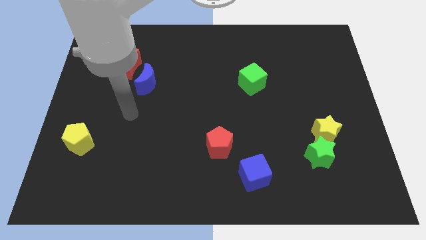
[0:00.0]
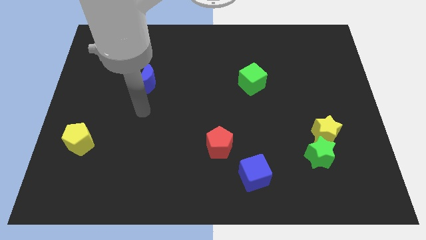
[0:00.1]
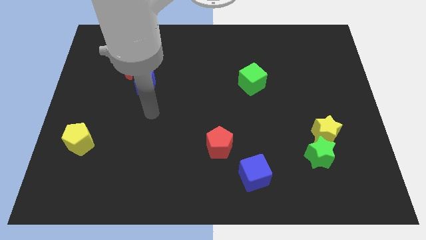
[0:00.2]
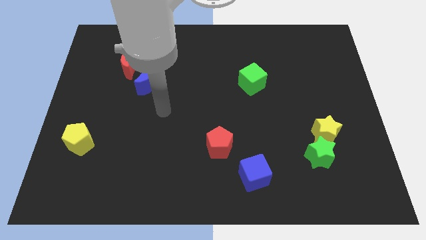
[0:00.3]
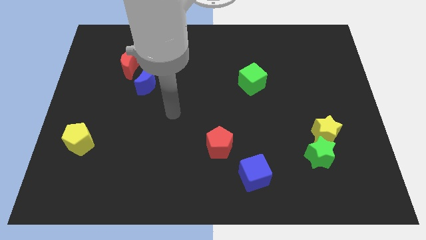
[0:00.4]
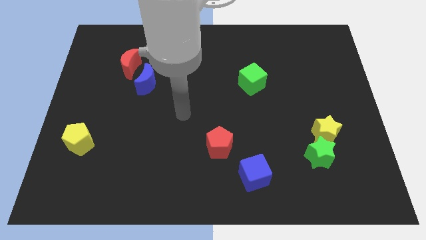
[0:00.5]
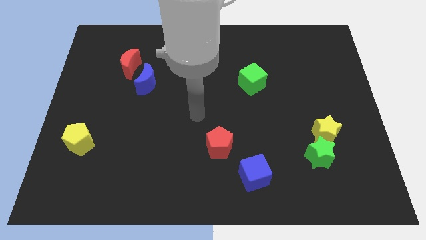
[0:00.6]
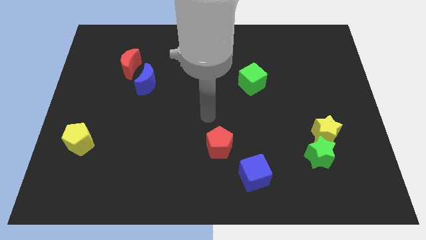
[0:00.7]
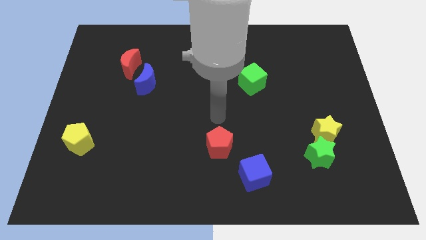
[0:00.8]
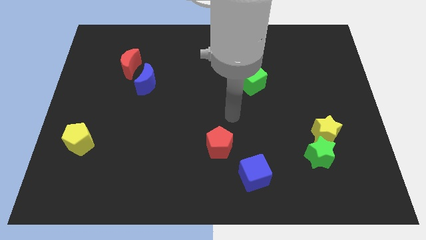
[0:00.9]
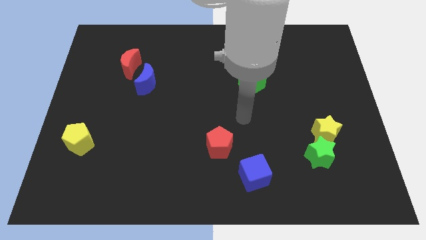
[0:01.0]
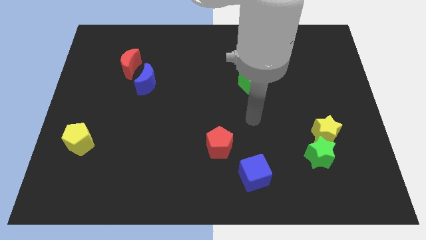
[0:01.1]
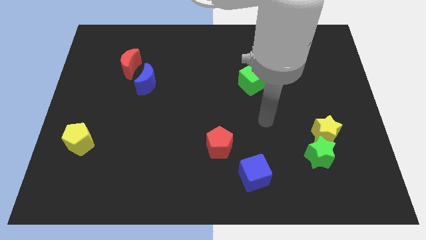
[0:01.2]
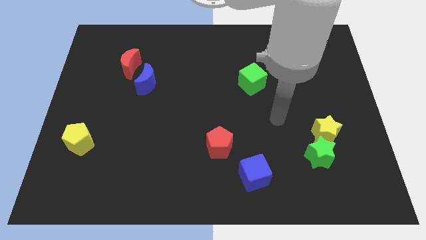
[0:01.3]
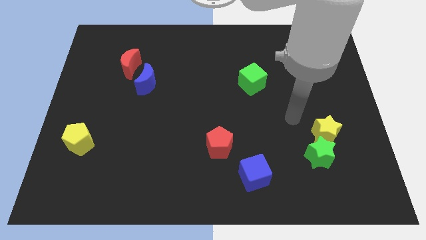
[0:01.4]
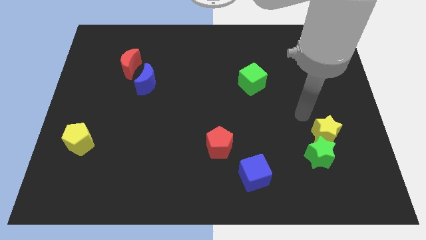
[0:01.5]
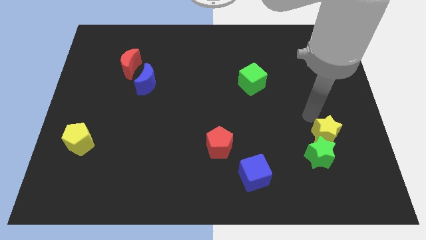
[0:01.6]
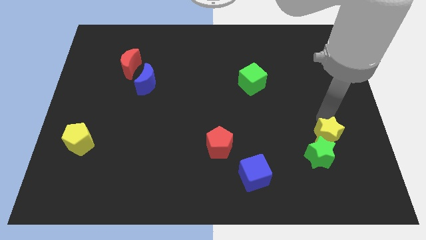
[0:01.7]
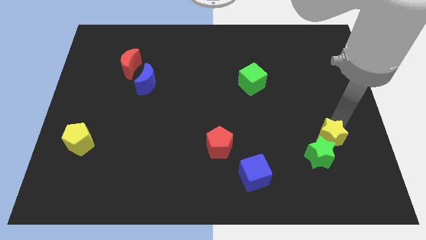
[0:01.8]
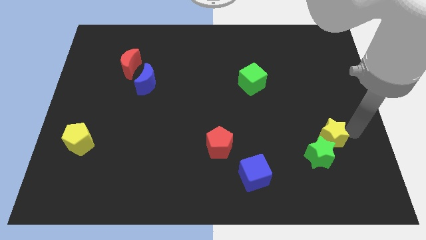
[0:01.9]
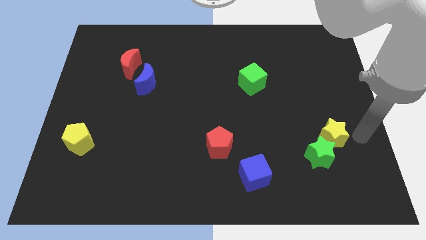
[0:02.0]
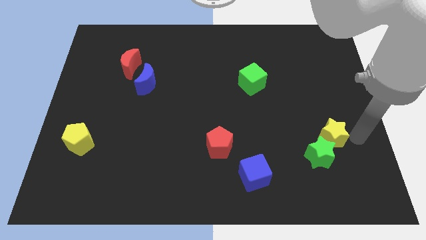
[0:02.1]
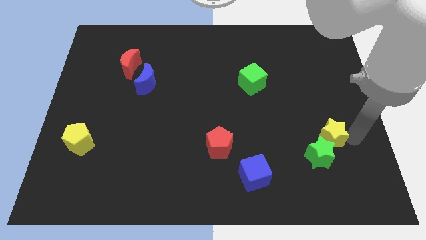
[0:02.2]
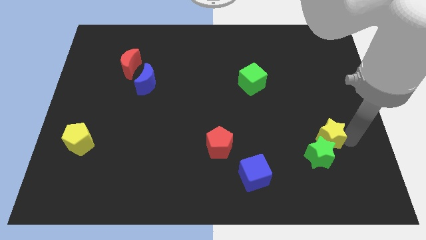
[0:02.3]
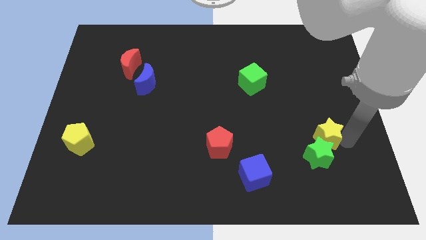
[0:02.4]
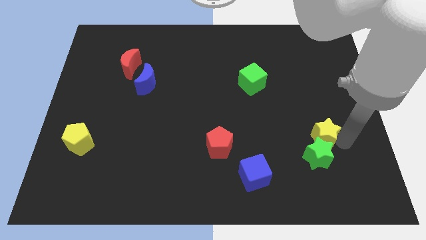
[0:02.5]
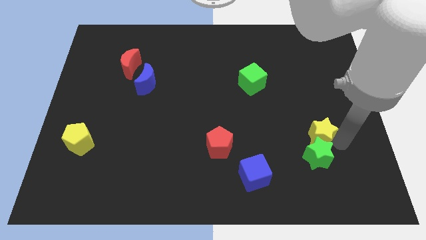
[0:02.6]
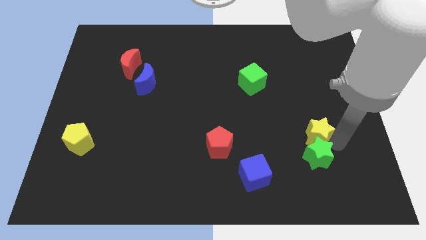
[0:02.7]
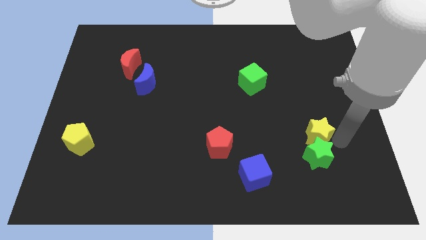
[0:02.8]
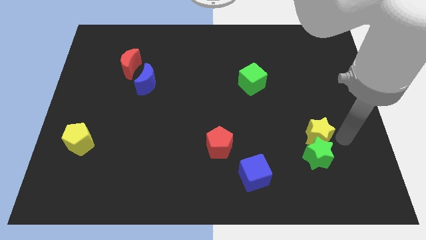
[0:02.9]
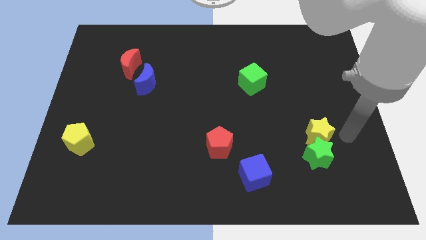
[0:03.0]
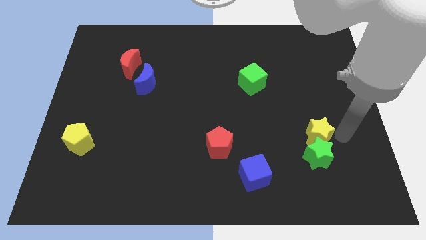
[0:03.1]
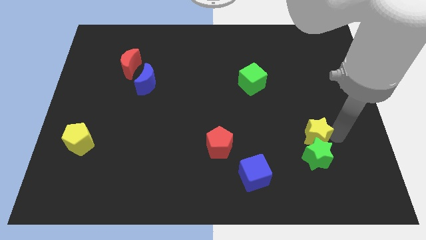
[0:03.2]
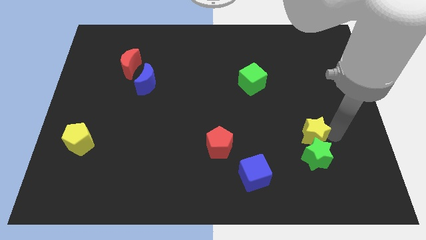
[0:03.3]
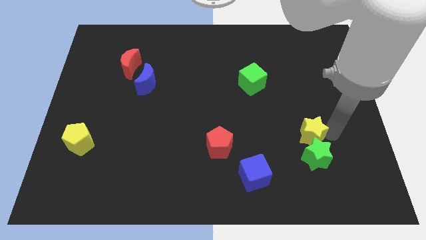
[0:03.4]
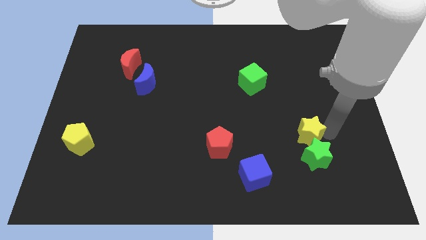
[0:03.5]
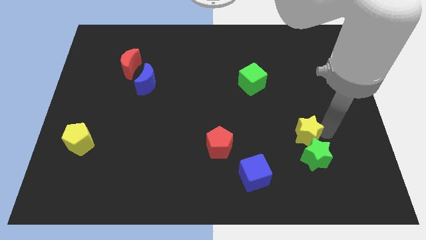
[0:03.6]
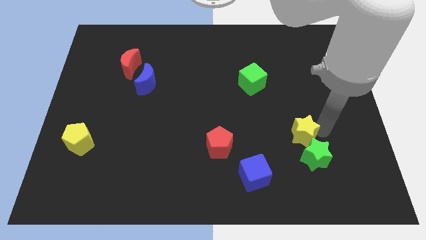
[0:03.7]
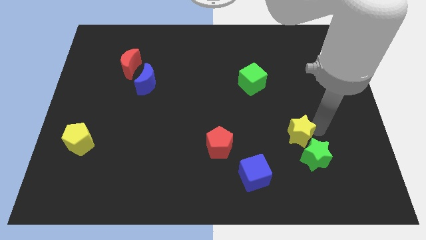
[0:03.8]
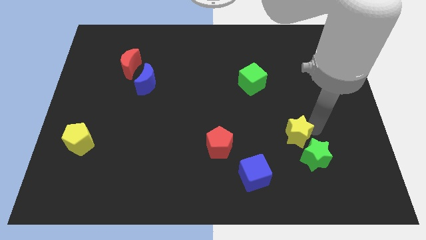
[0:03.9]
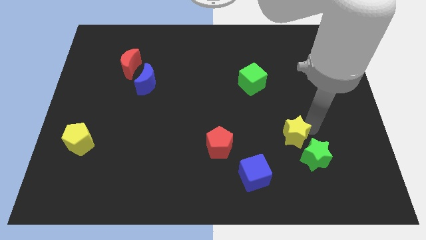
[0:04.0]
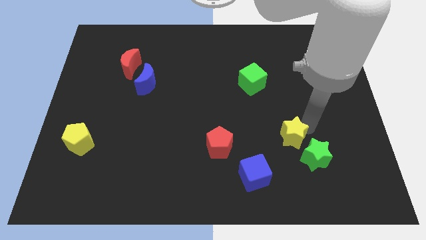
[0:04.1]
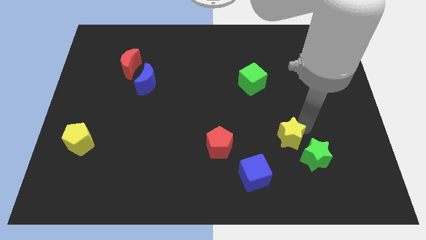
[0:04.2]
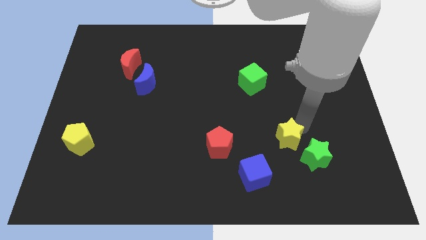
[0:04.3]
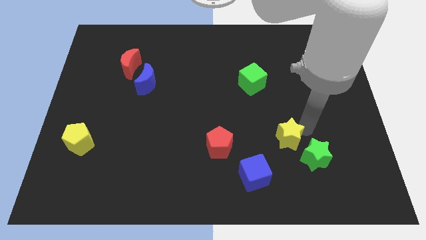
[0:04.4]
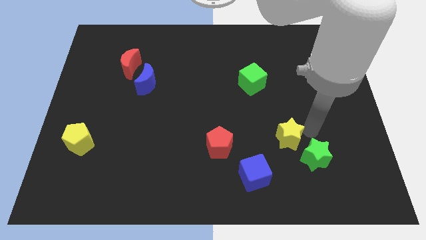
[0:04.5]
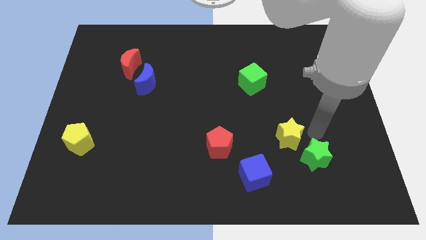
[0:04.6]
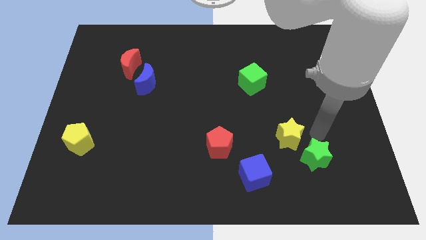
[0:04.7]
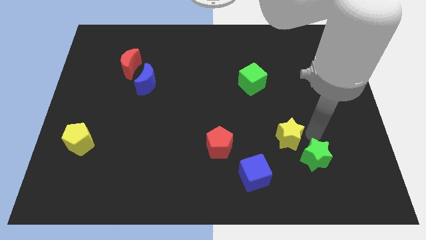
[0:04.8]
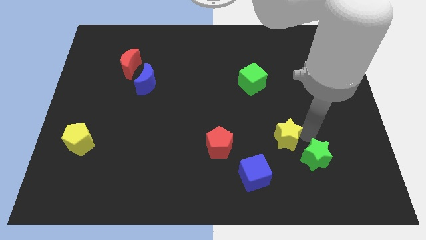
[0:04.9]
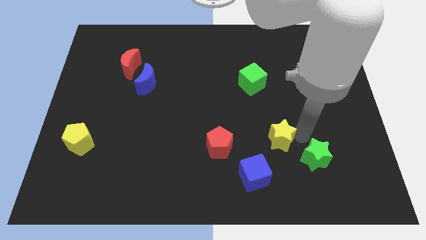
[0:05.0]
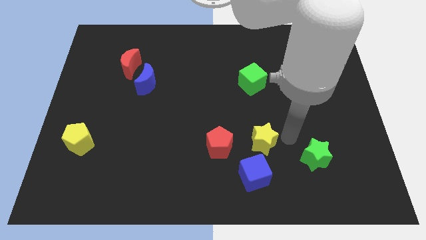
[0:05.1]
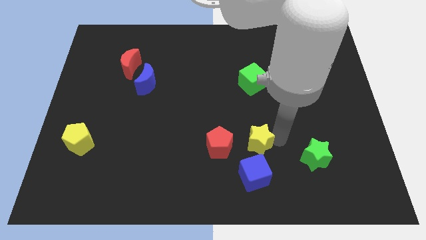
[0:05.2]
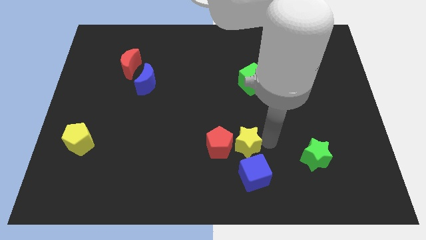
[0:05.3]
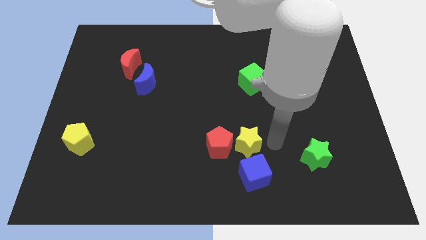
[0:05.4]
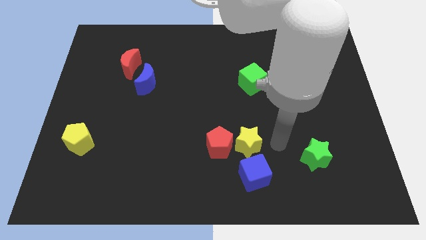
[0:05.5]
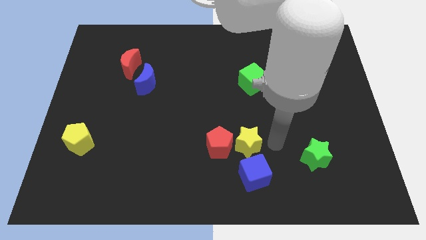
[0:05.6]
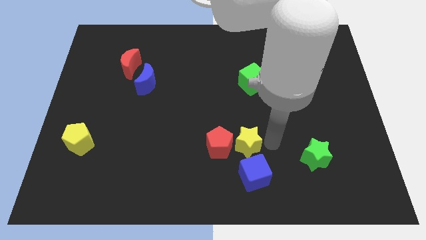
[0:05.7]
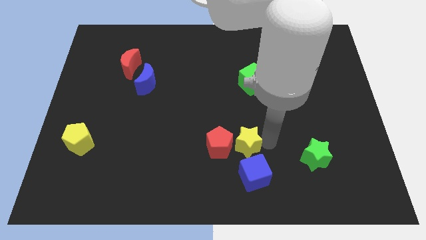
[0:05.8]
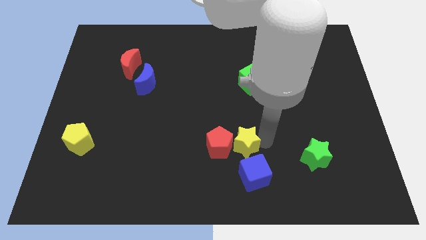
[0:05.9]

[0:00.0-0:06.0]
move the yellow star towards the red pentagon

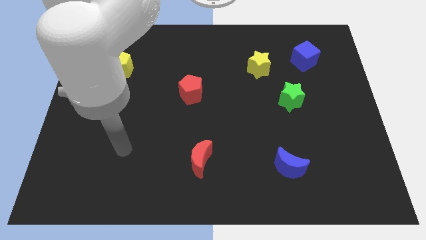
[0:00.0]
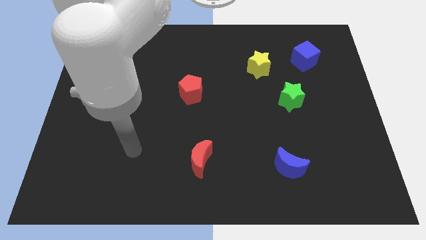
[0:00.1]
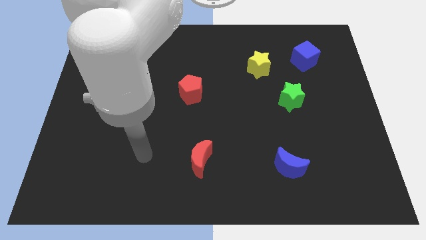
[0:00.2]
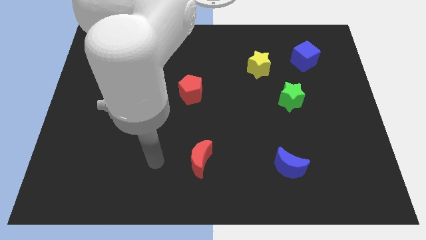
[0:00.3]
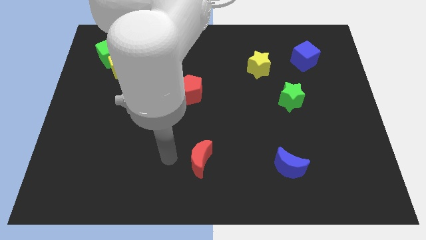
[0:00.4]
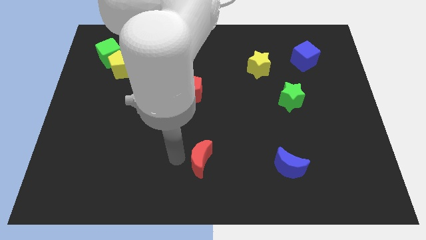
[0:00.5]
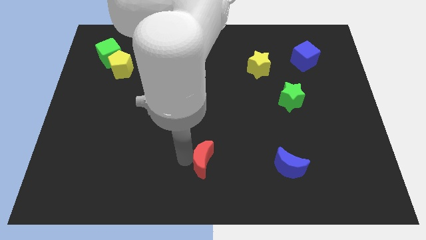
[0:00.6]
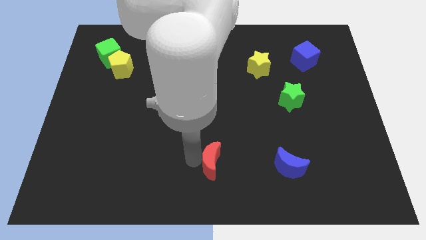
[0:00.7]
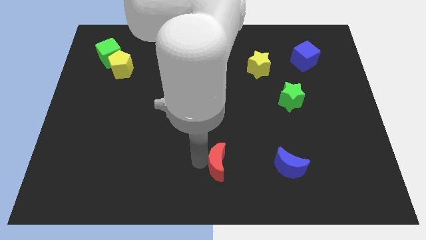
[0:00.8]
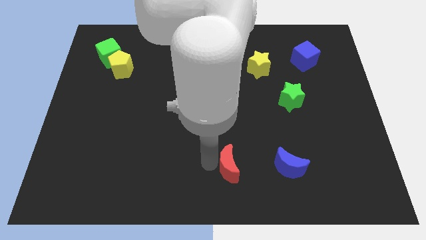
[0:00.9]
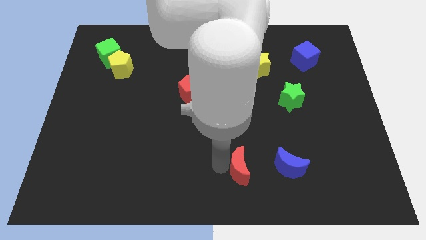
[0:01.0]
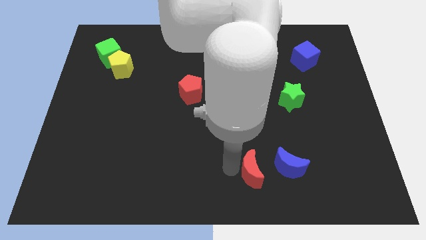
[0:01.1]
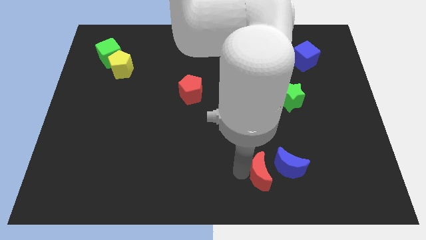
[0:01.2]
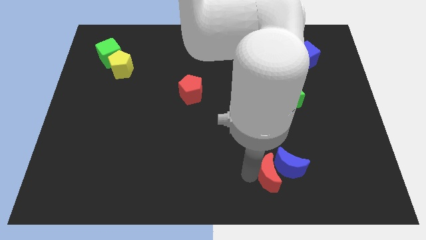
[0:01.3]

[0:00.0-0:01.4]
push the red moon towards the blue moon
